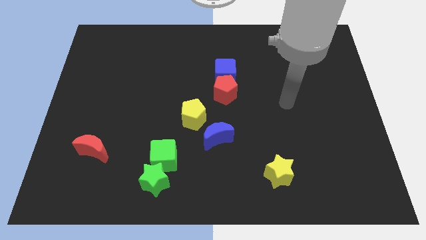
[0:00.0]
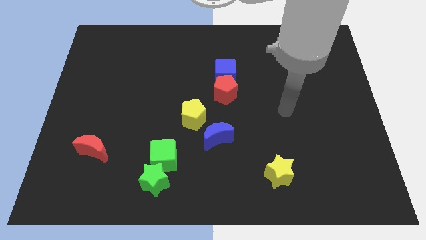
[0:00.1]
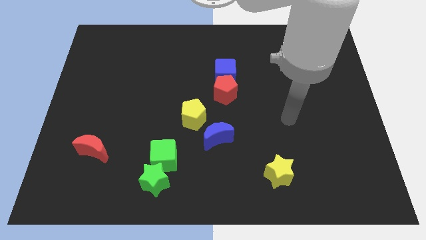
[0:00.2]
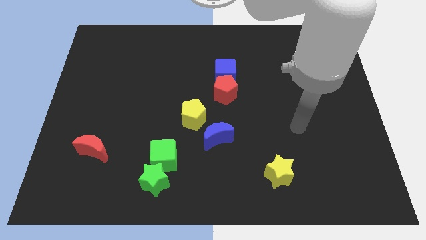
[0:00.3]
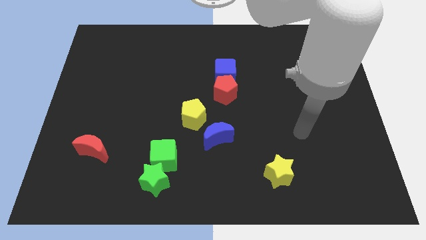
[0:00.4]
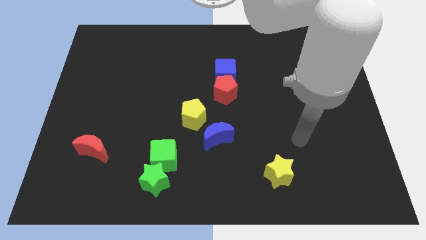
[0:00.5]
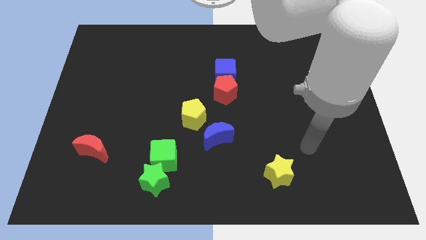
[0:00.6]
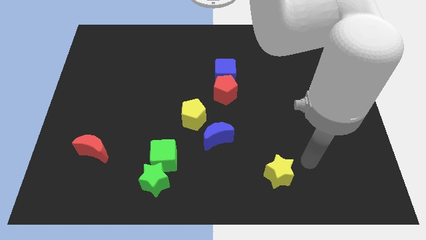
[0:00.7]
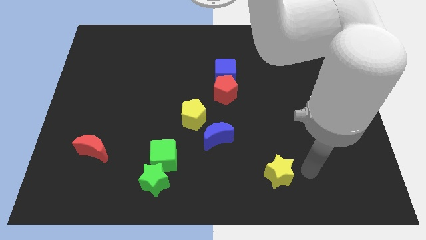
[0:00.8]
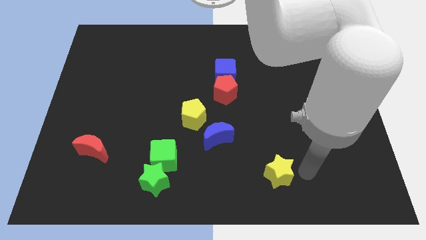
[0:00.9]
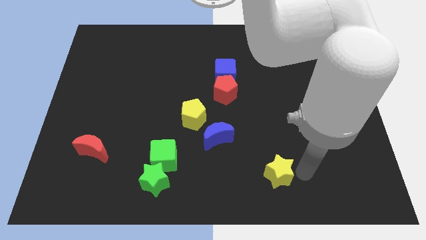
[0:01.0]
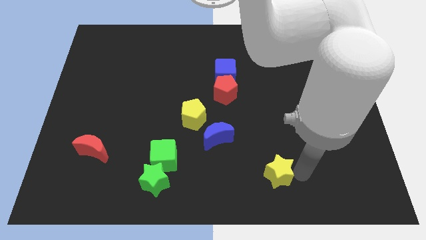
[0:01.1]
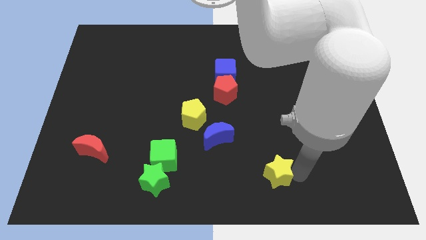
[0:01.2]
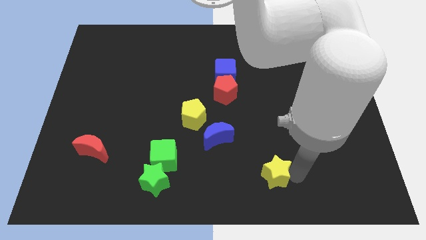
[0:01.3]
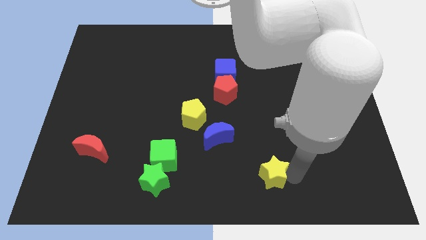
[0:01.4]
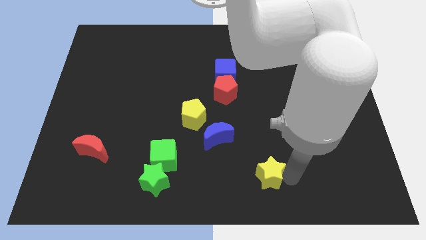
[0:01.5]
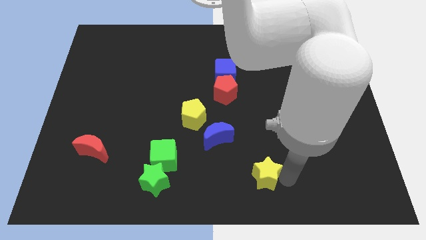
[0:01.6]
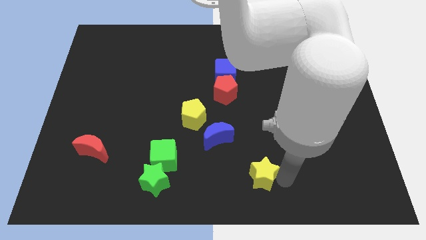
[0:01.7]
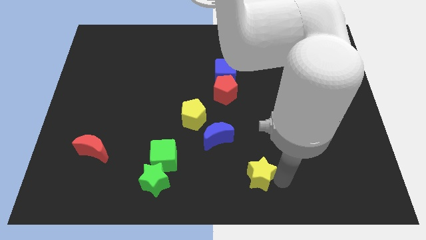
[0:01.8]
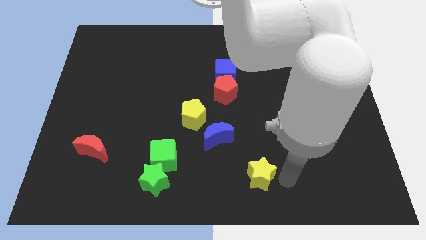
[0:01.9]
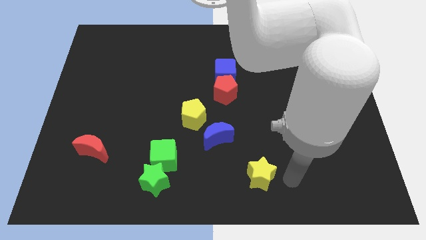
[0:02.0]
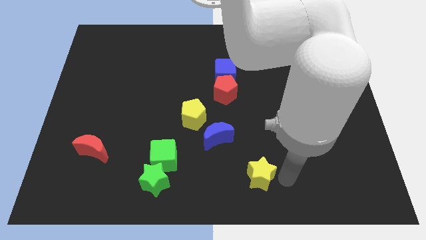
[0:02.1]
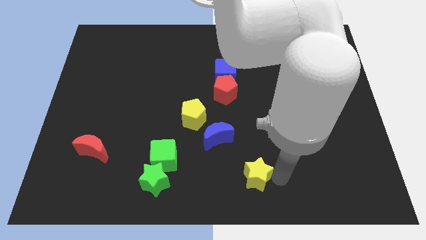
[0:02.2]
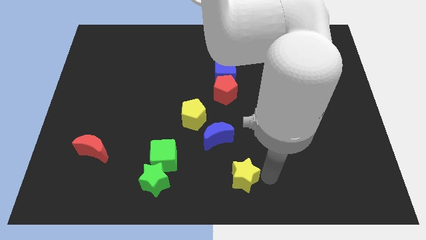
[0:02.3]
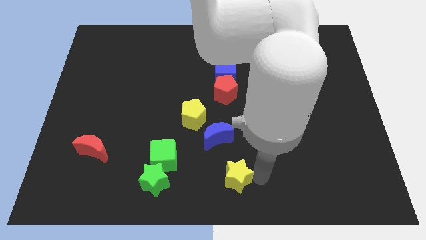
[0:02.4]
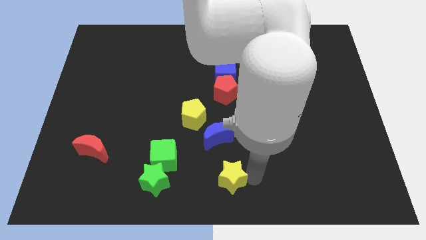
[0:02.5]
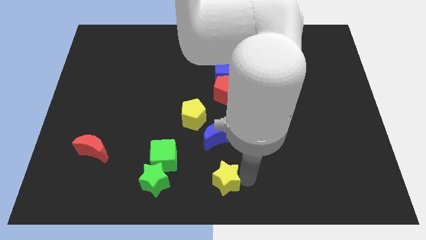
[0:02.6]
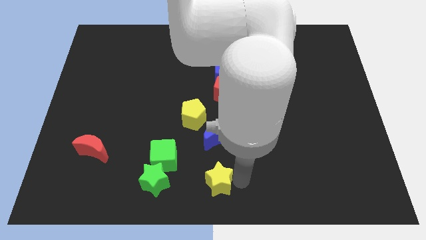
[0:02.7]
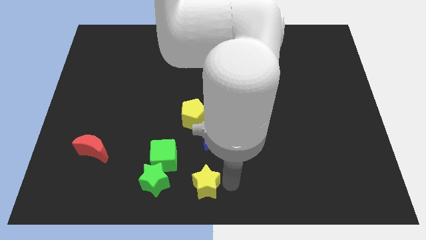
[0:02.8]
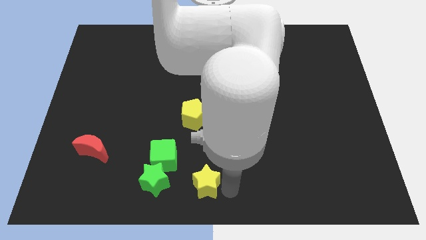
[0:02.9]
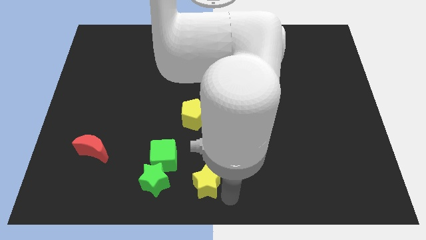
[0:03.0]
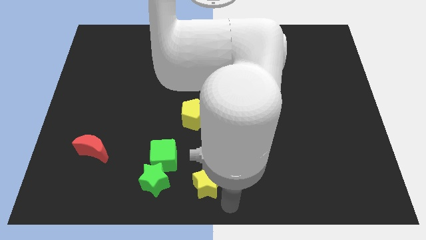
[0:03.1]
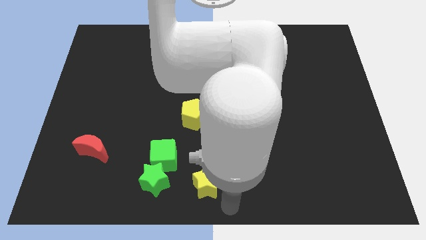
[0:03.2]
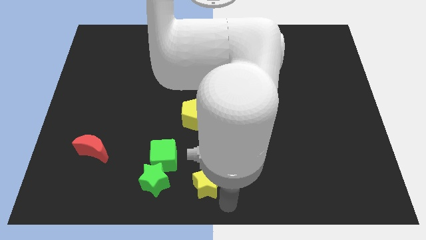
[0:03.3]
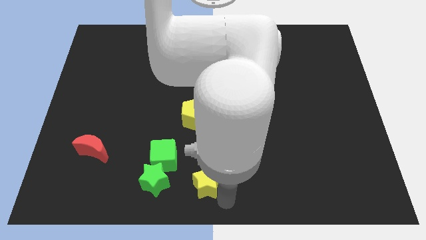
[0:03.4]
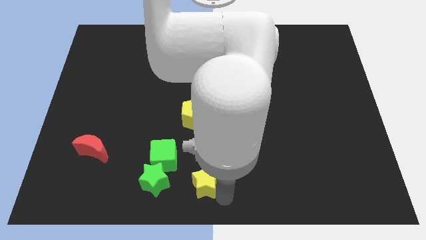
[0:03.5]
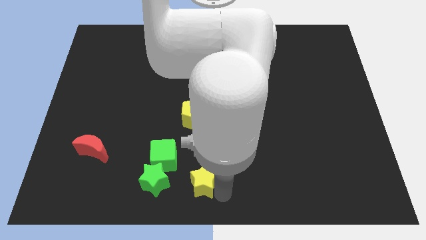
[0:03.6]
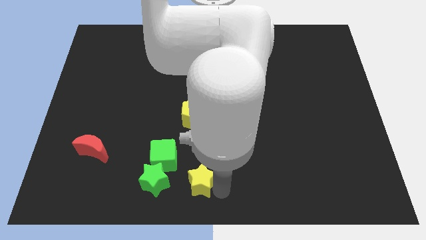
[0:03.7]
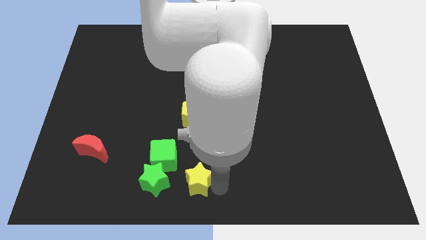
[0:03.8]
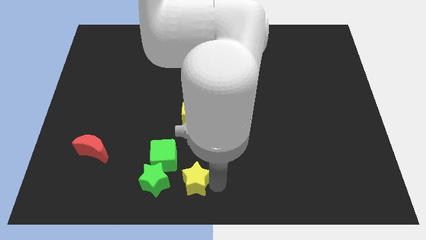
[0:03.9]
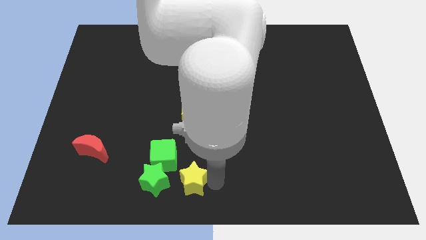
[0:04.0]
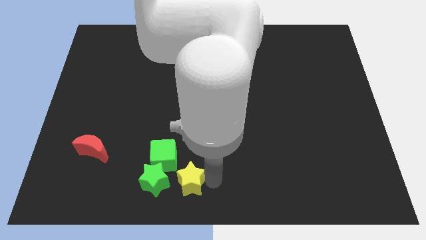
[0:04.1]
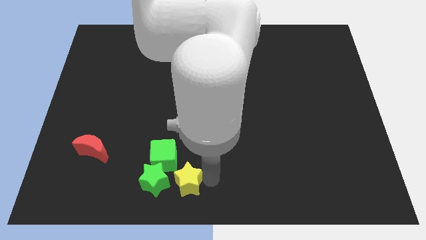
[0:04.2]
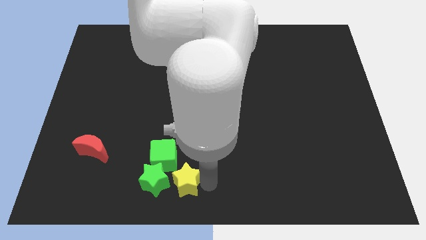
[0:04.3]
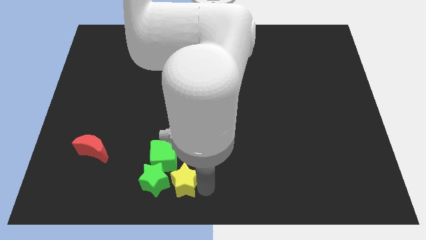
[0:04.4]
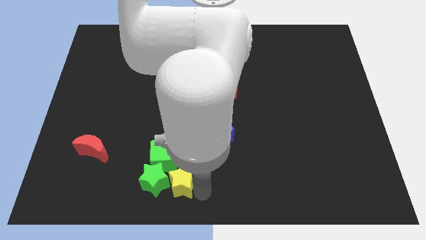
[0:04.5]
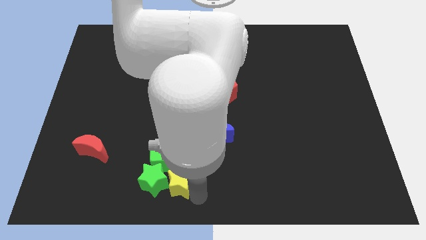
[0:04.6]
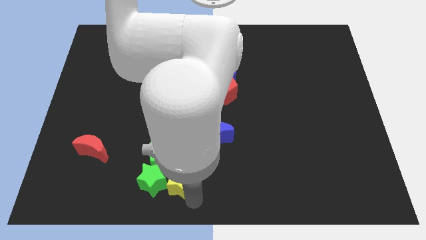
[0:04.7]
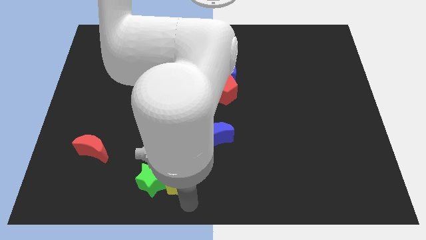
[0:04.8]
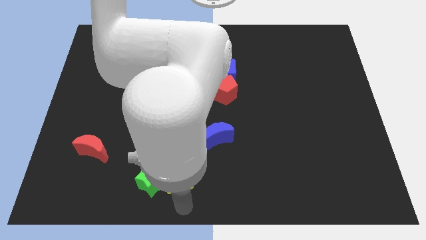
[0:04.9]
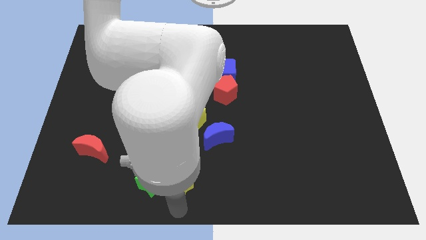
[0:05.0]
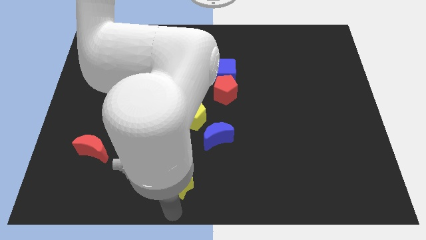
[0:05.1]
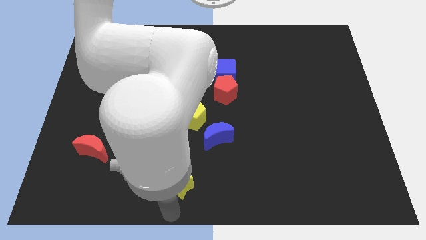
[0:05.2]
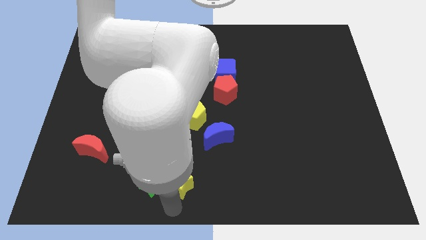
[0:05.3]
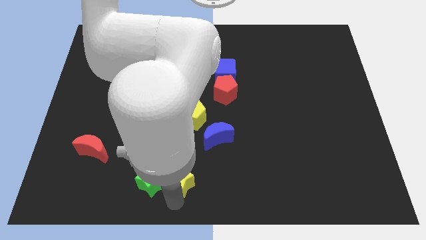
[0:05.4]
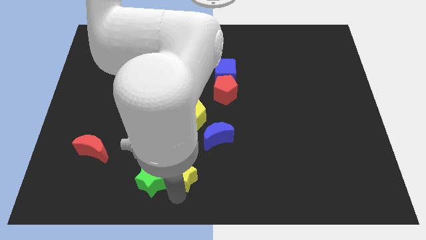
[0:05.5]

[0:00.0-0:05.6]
move the yellow star close to the green cube

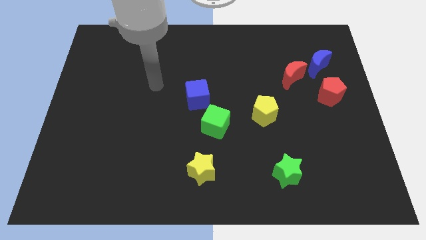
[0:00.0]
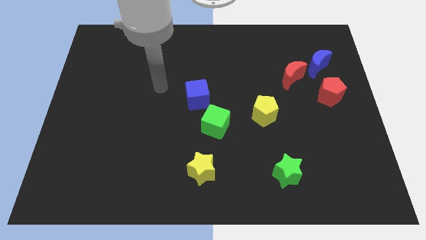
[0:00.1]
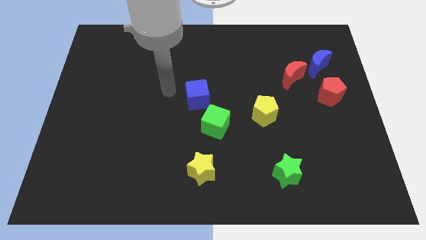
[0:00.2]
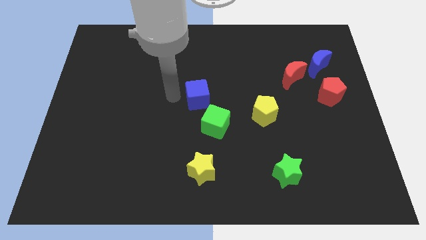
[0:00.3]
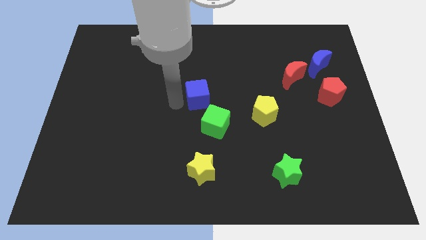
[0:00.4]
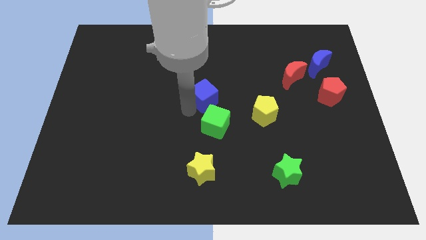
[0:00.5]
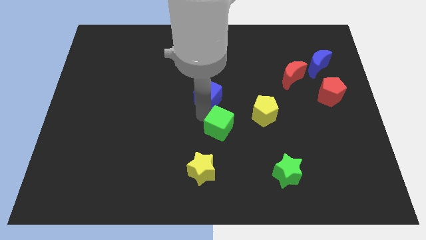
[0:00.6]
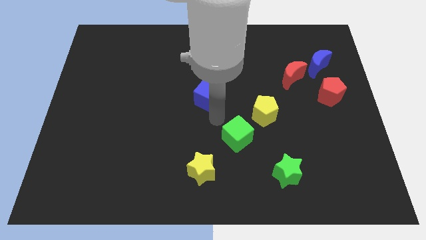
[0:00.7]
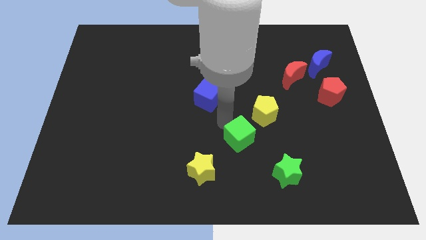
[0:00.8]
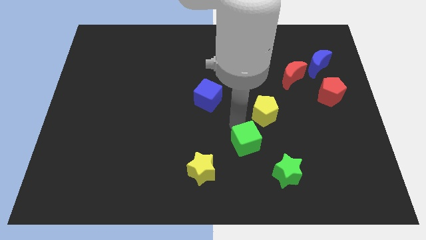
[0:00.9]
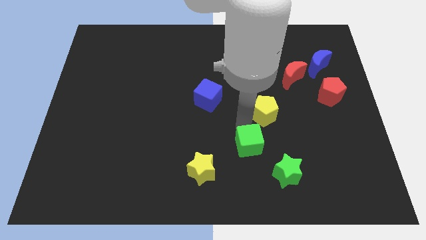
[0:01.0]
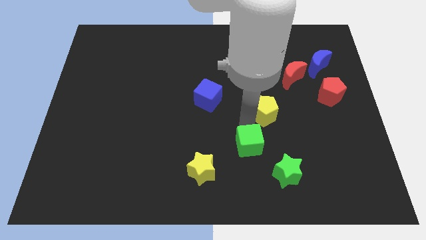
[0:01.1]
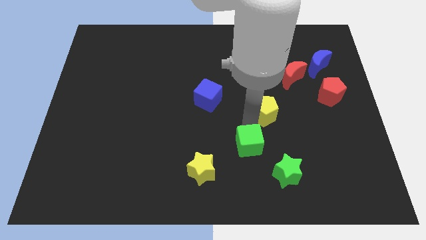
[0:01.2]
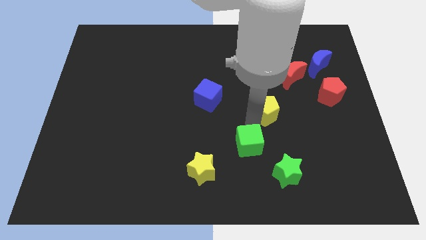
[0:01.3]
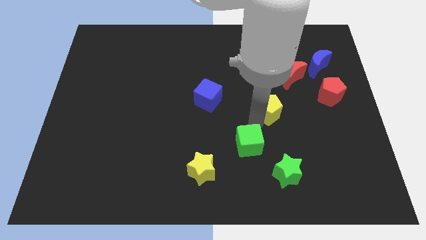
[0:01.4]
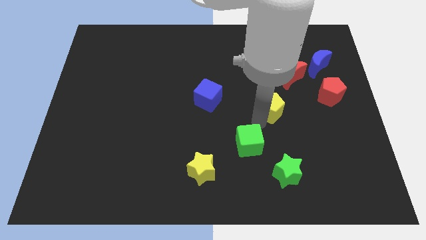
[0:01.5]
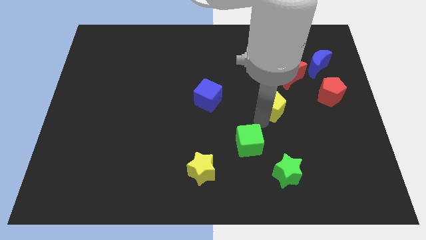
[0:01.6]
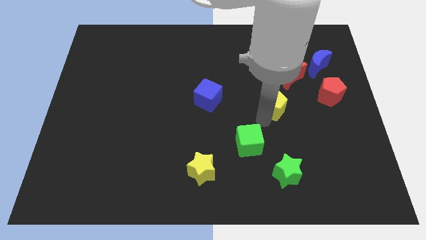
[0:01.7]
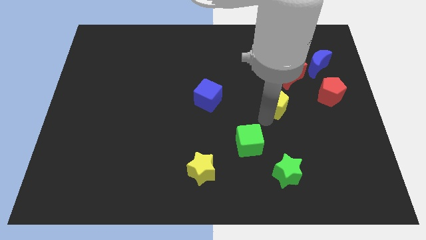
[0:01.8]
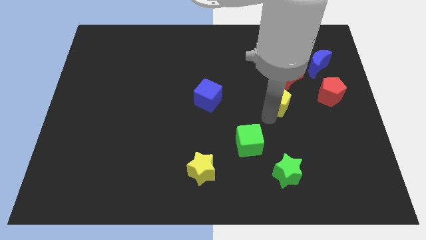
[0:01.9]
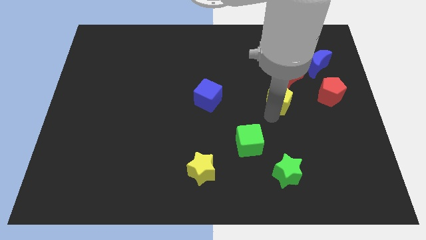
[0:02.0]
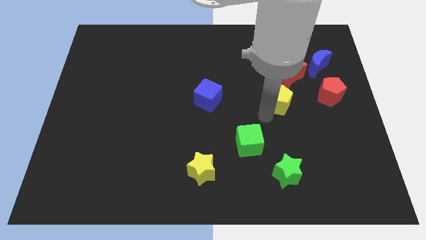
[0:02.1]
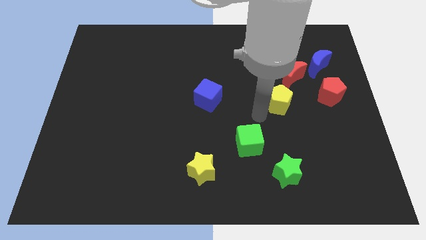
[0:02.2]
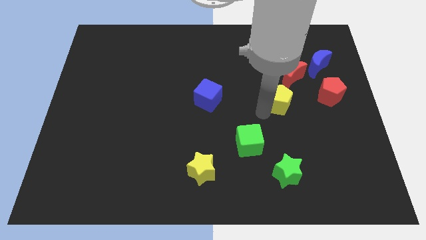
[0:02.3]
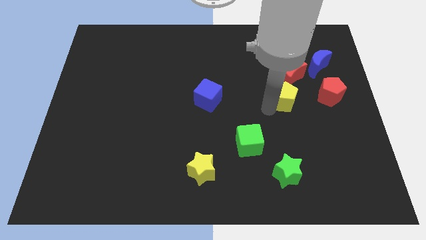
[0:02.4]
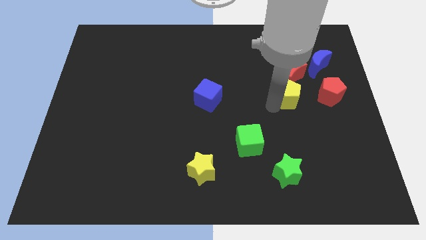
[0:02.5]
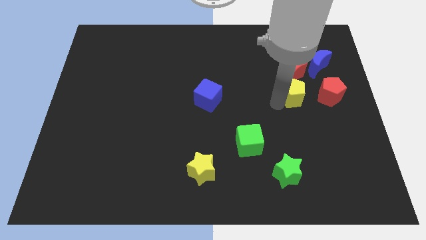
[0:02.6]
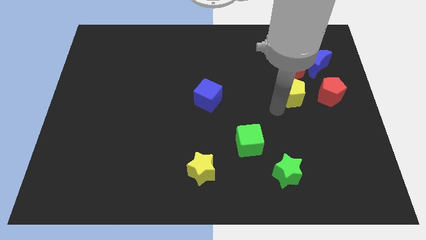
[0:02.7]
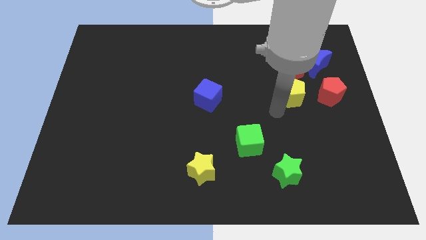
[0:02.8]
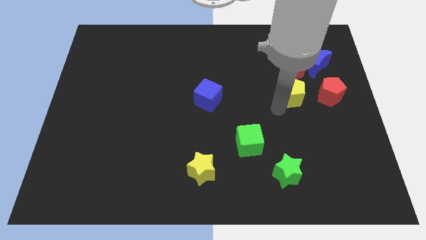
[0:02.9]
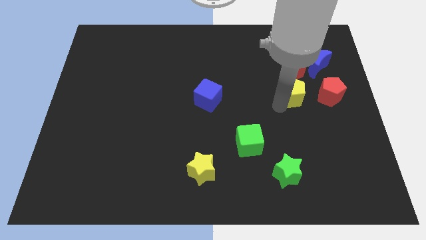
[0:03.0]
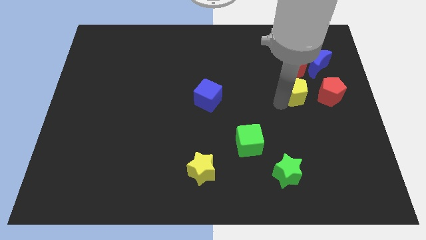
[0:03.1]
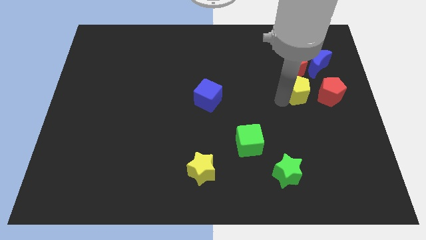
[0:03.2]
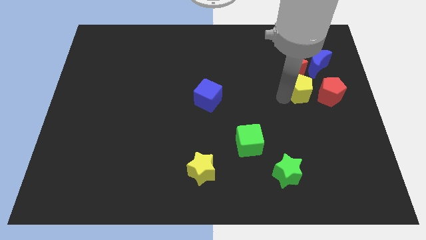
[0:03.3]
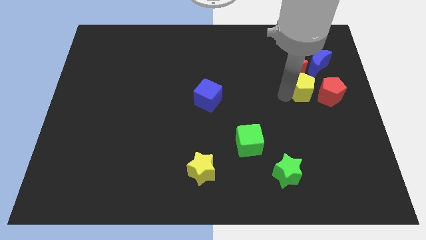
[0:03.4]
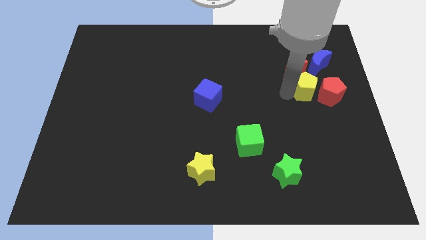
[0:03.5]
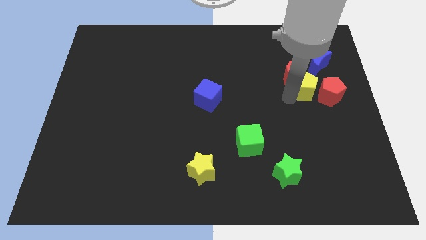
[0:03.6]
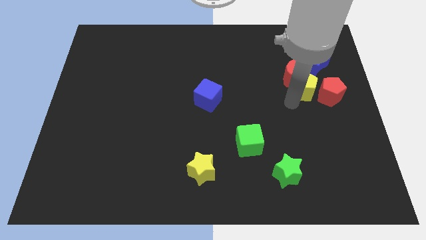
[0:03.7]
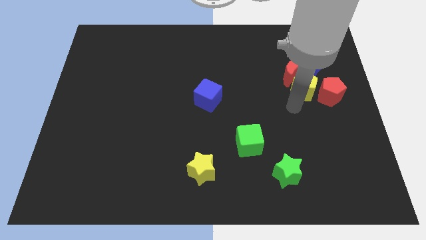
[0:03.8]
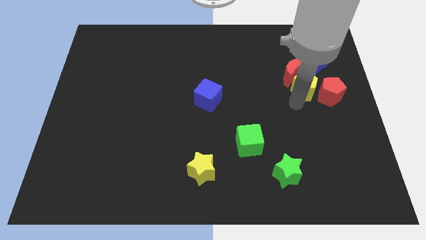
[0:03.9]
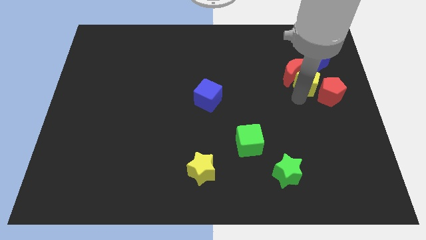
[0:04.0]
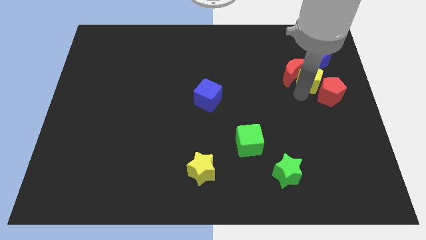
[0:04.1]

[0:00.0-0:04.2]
move the yellow pentagon to the blue moon
